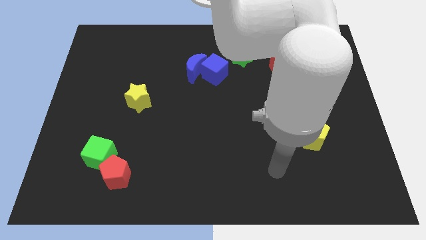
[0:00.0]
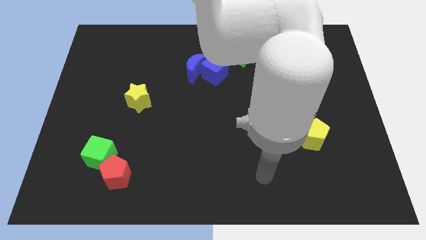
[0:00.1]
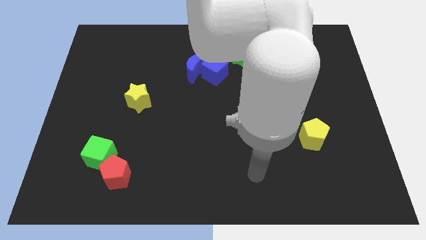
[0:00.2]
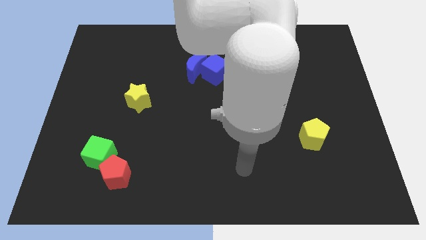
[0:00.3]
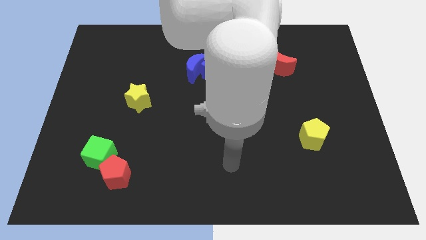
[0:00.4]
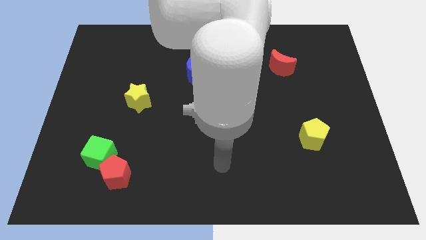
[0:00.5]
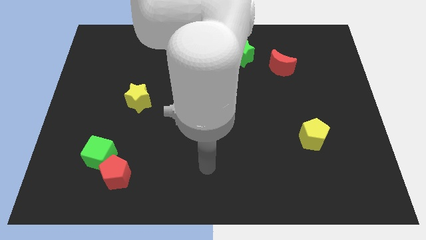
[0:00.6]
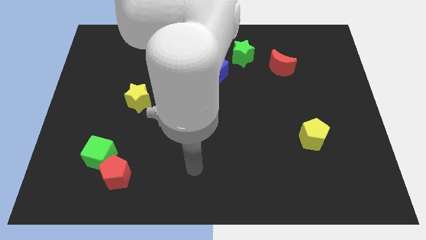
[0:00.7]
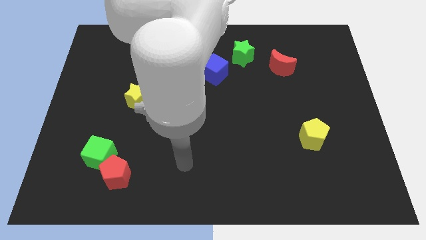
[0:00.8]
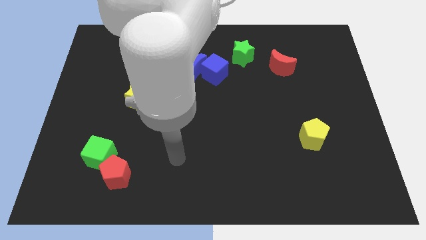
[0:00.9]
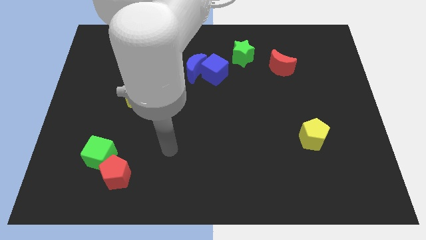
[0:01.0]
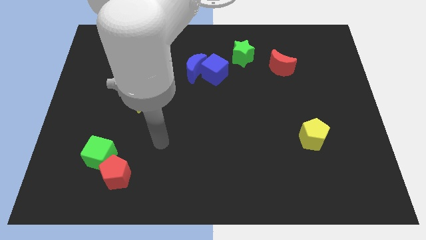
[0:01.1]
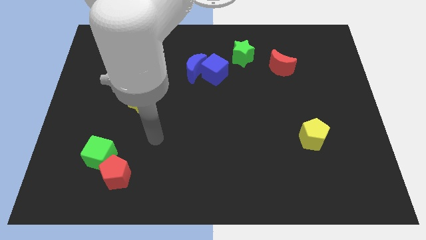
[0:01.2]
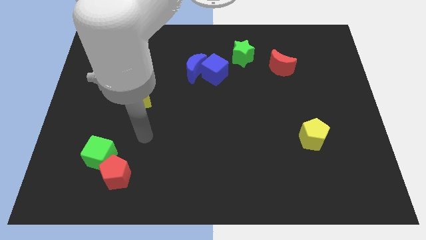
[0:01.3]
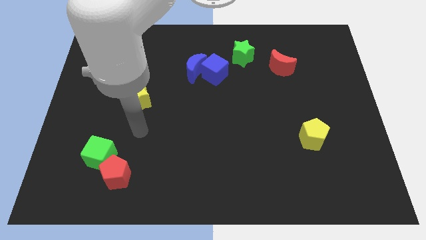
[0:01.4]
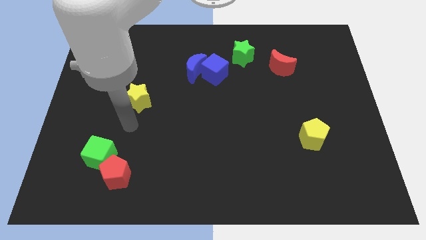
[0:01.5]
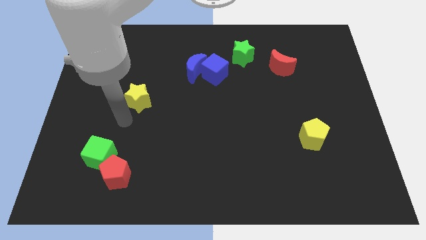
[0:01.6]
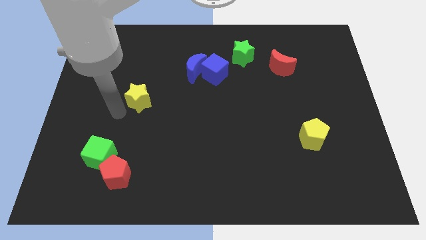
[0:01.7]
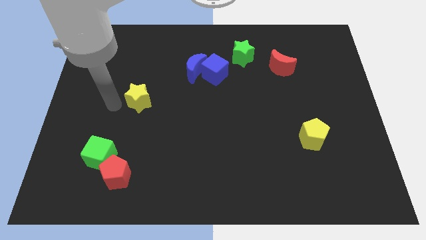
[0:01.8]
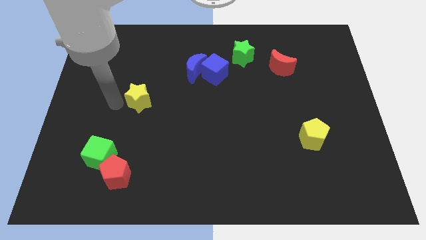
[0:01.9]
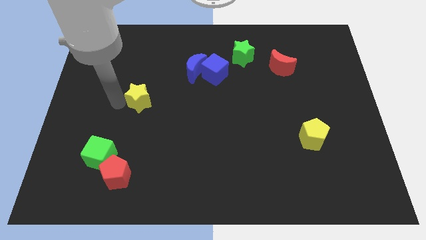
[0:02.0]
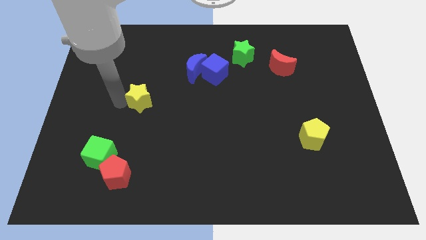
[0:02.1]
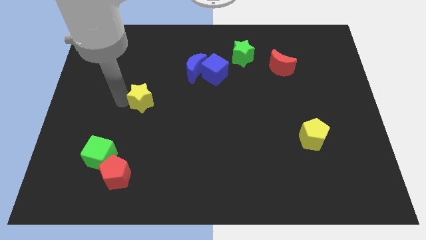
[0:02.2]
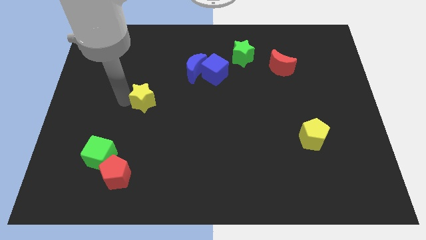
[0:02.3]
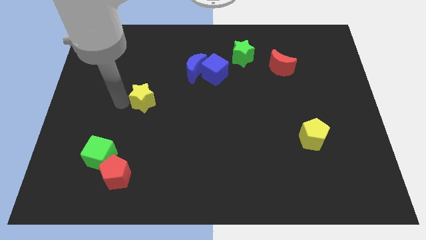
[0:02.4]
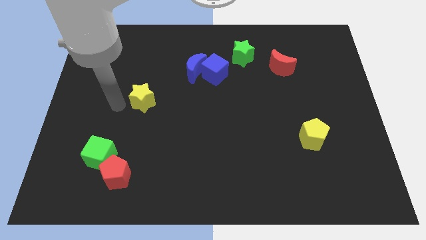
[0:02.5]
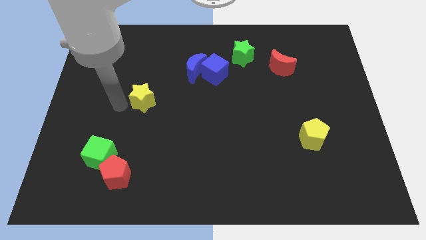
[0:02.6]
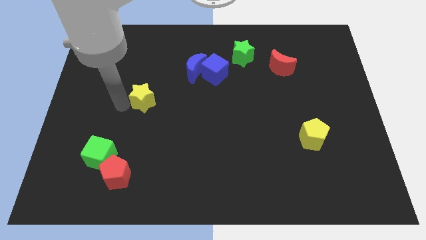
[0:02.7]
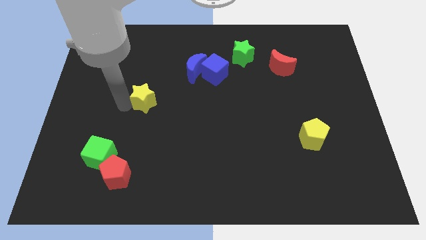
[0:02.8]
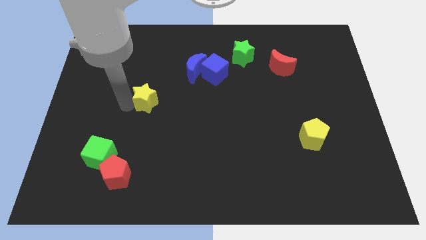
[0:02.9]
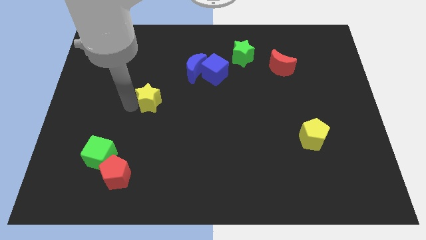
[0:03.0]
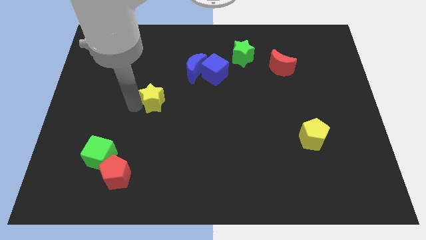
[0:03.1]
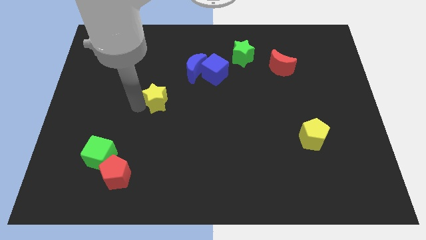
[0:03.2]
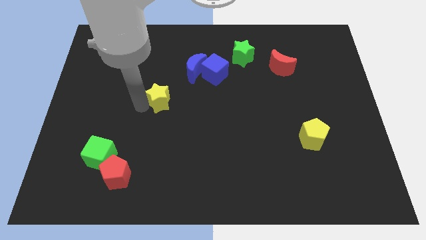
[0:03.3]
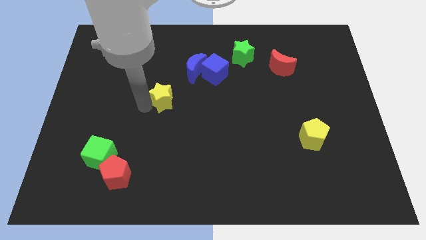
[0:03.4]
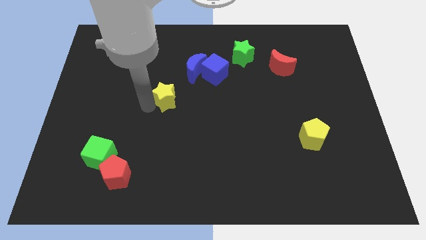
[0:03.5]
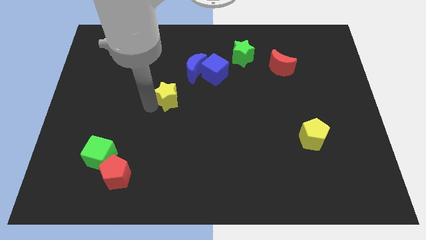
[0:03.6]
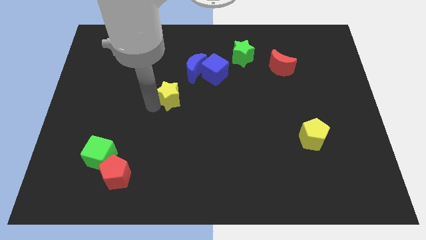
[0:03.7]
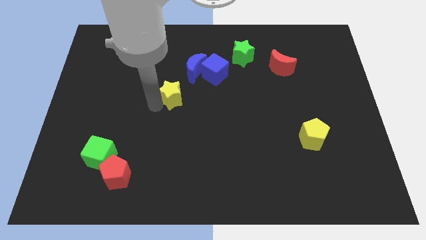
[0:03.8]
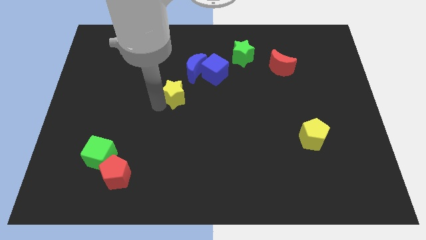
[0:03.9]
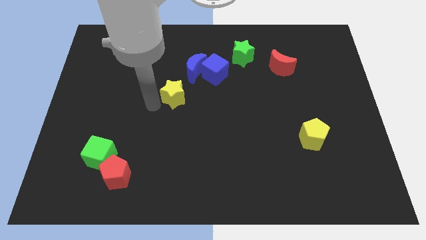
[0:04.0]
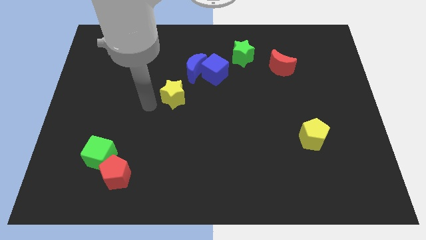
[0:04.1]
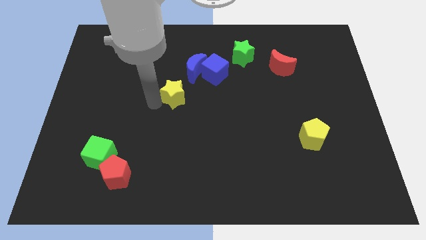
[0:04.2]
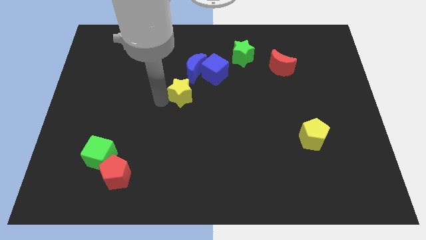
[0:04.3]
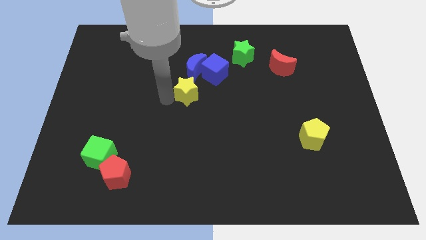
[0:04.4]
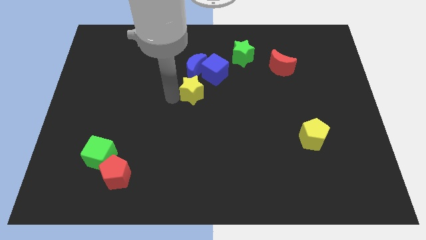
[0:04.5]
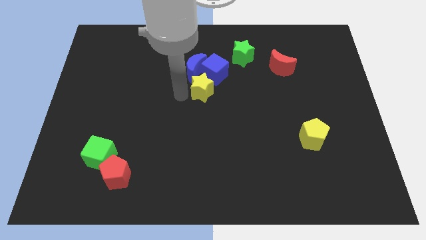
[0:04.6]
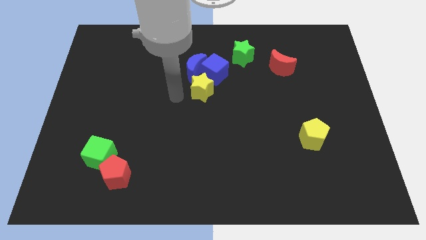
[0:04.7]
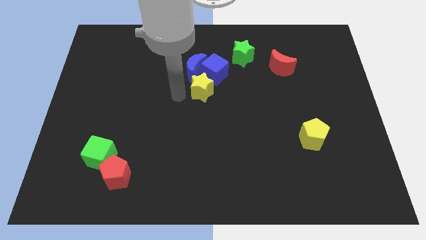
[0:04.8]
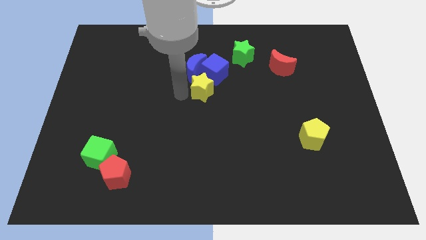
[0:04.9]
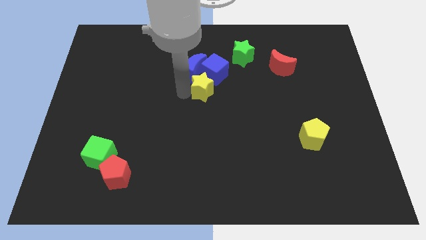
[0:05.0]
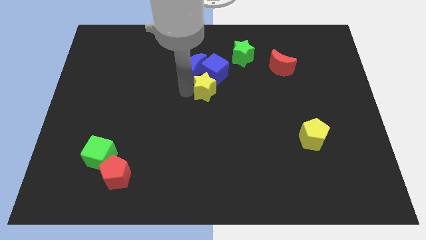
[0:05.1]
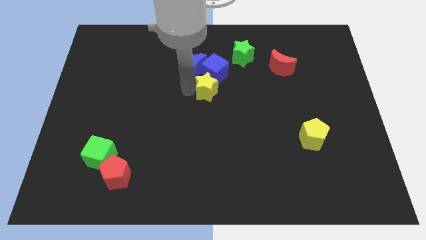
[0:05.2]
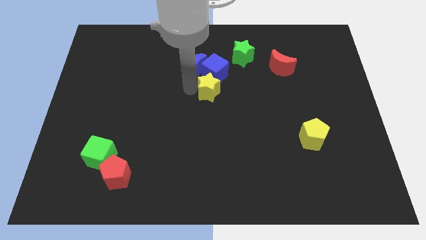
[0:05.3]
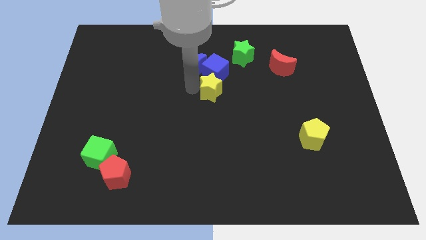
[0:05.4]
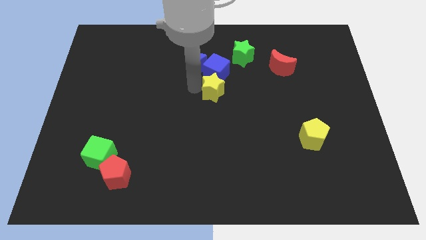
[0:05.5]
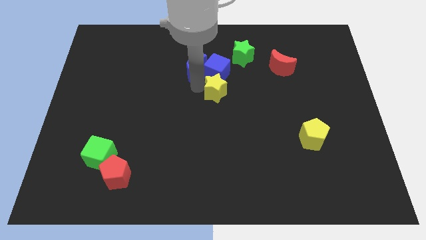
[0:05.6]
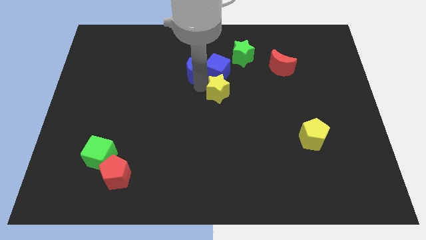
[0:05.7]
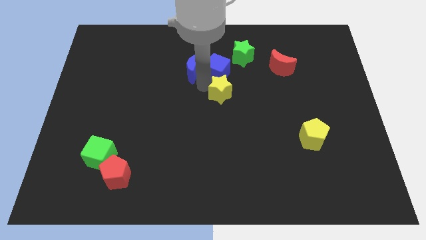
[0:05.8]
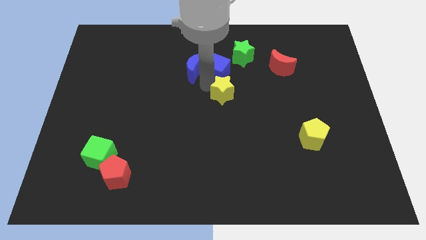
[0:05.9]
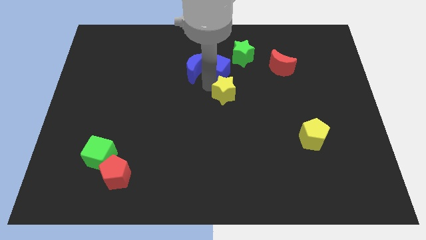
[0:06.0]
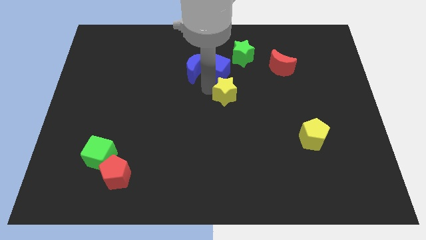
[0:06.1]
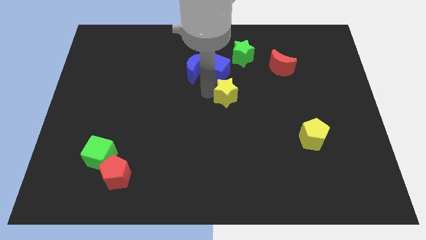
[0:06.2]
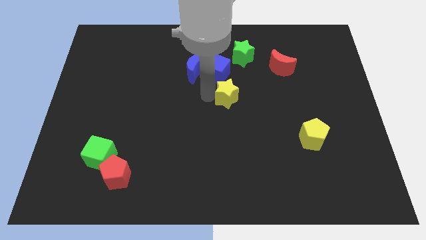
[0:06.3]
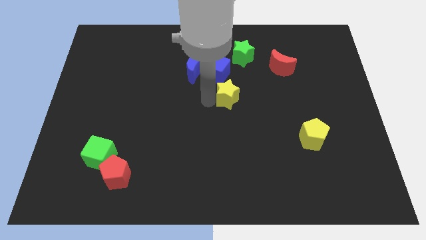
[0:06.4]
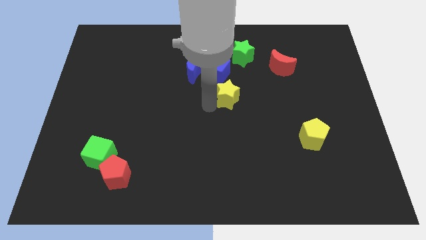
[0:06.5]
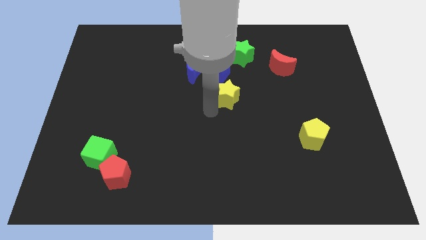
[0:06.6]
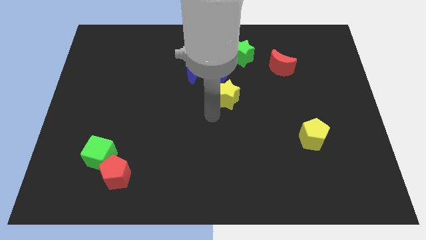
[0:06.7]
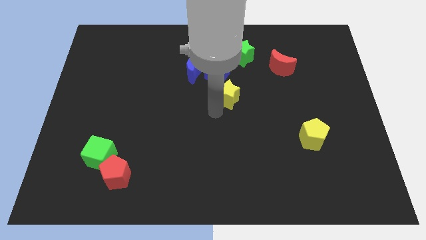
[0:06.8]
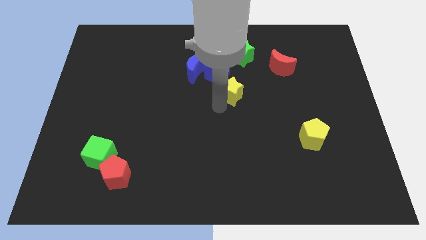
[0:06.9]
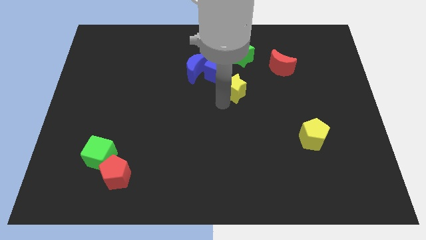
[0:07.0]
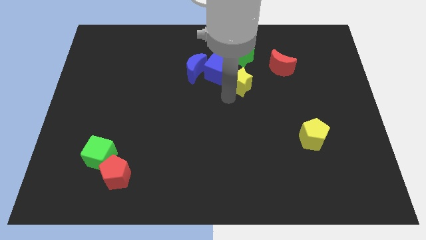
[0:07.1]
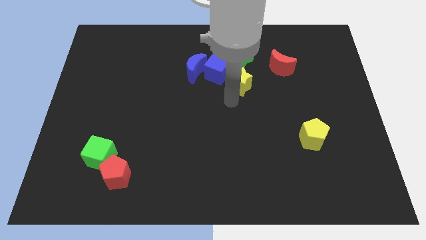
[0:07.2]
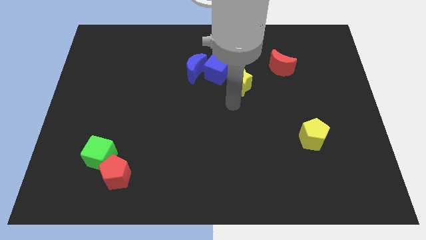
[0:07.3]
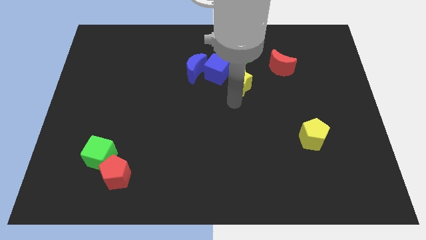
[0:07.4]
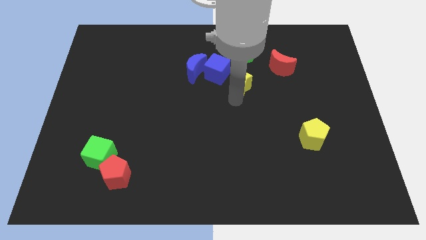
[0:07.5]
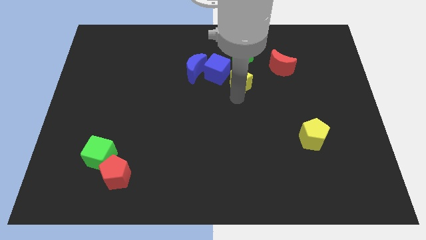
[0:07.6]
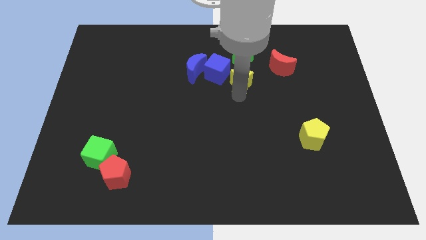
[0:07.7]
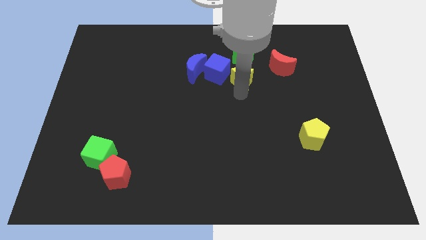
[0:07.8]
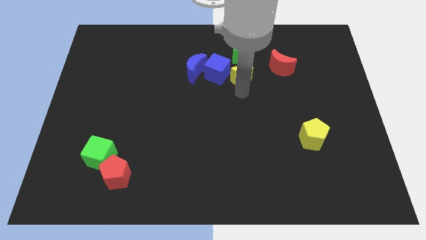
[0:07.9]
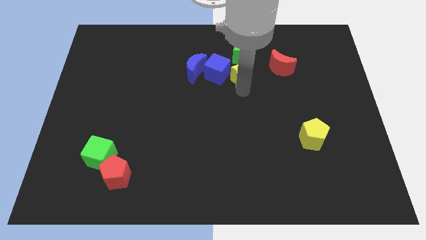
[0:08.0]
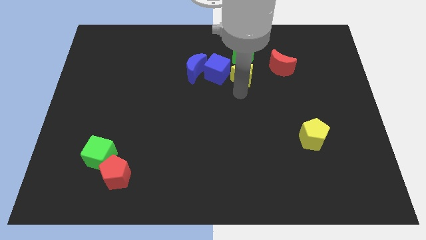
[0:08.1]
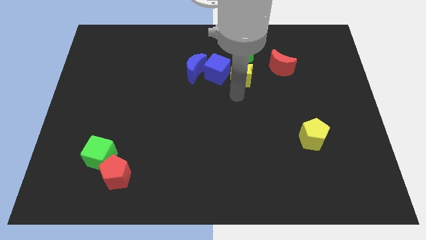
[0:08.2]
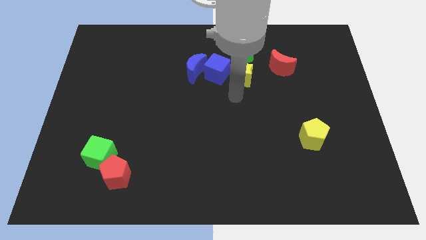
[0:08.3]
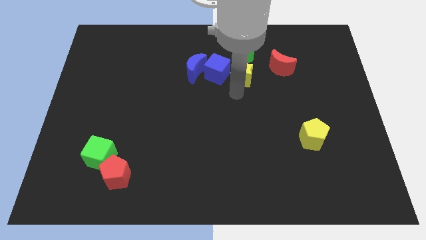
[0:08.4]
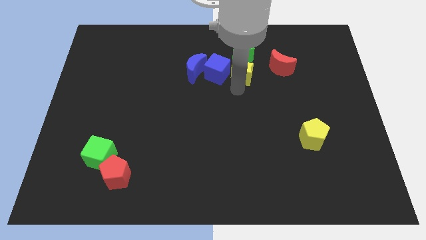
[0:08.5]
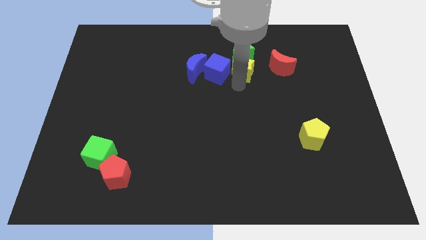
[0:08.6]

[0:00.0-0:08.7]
slide the yellow star next to the green star
